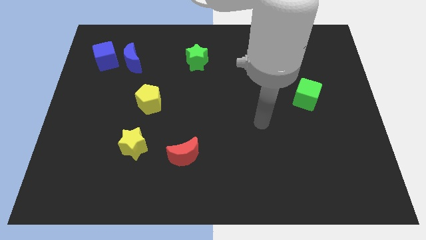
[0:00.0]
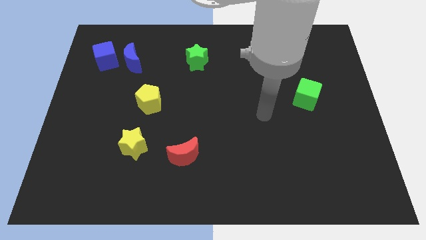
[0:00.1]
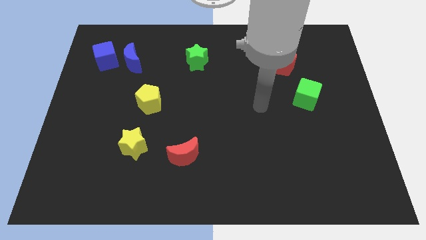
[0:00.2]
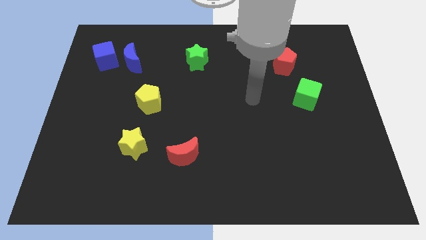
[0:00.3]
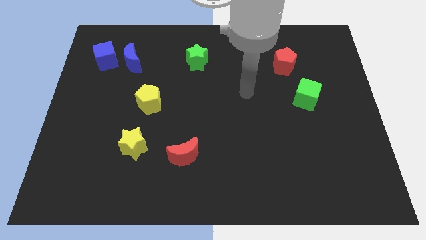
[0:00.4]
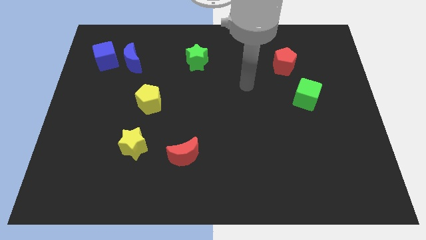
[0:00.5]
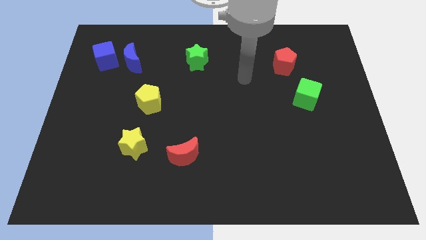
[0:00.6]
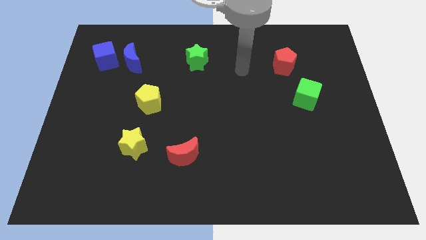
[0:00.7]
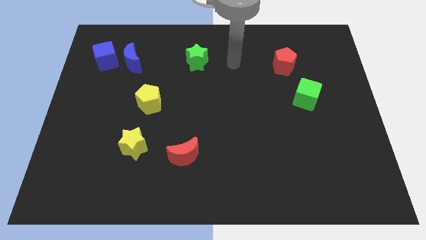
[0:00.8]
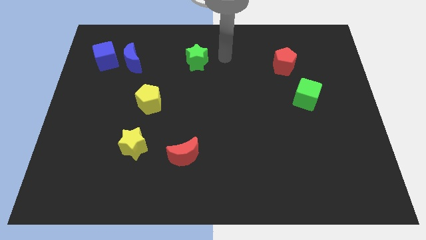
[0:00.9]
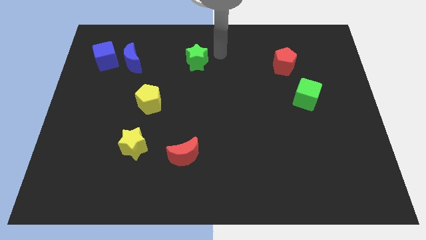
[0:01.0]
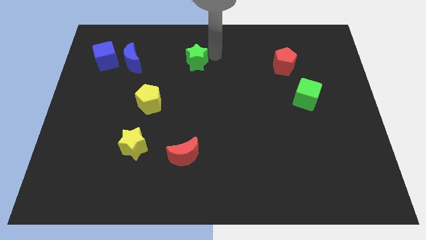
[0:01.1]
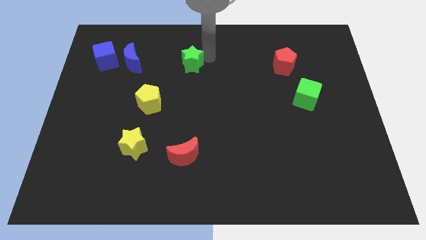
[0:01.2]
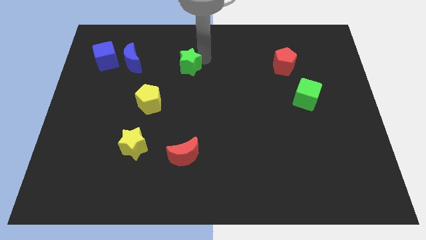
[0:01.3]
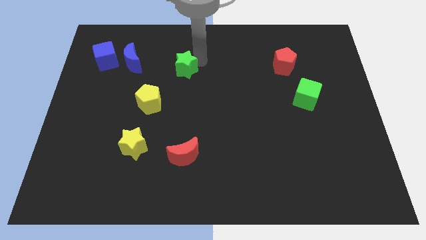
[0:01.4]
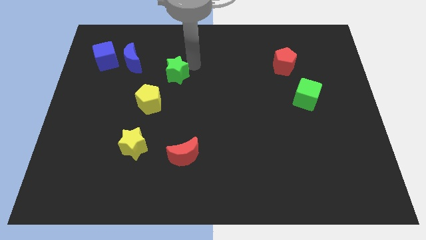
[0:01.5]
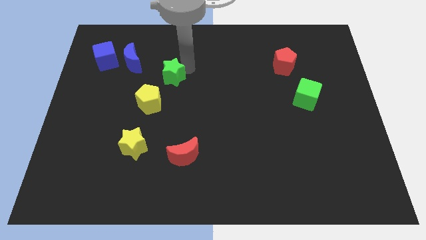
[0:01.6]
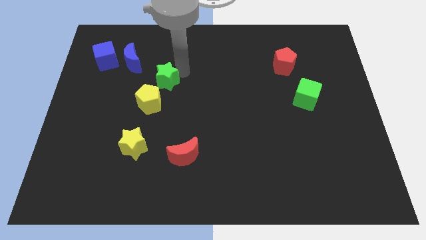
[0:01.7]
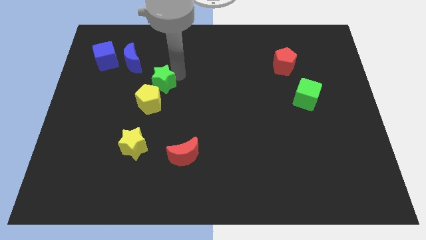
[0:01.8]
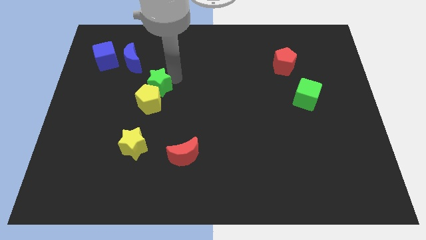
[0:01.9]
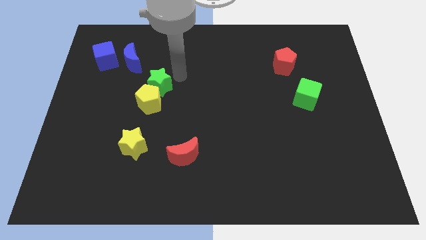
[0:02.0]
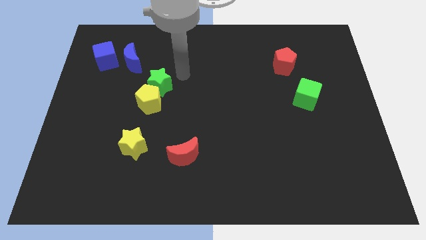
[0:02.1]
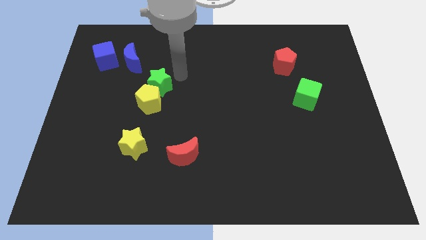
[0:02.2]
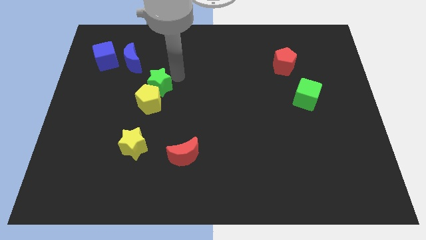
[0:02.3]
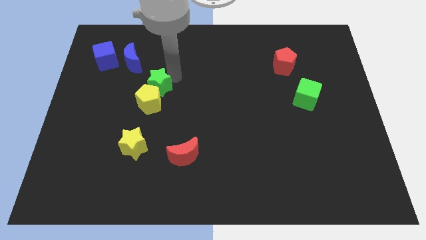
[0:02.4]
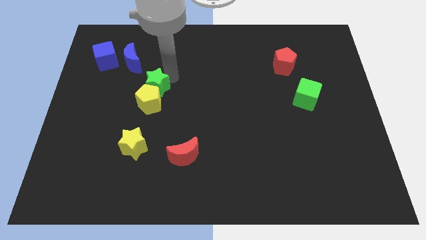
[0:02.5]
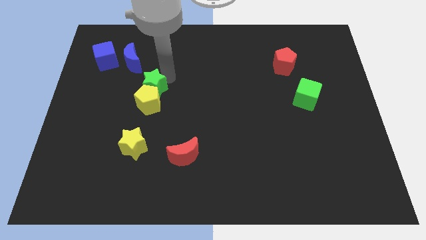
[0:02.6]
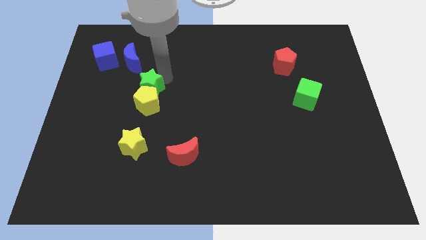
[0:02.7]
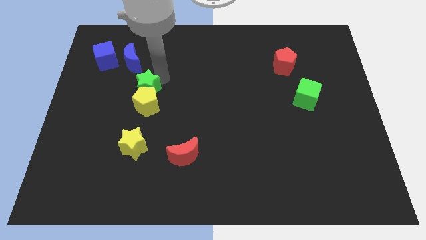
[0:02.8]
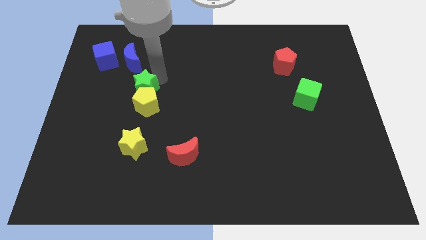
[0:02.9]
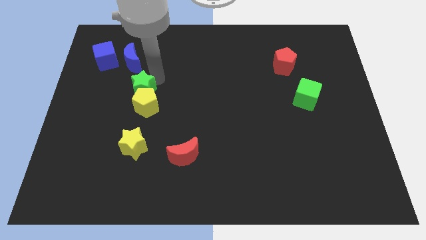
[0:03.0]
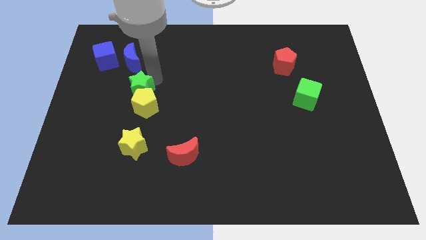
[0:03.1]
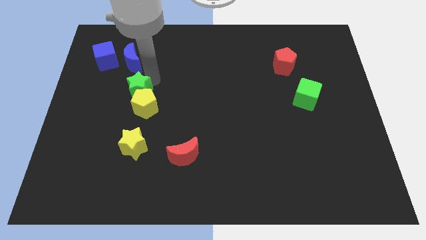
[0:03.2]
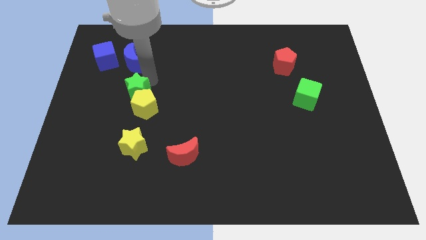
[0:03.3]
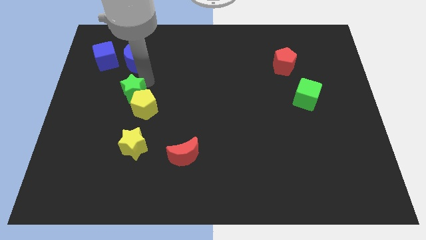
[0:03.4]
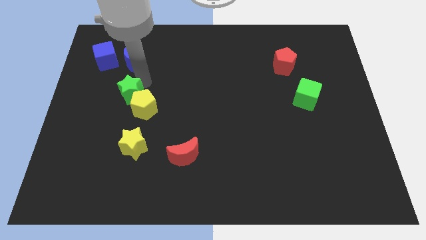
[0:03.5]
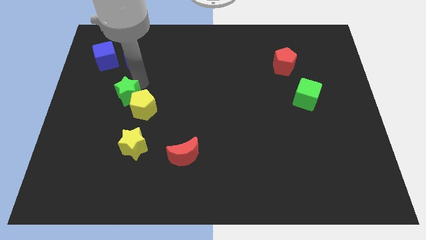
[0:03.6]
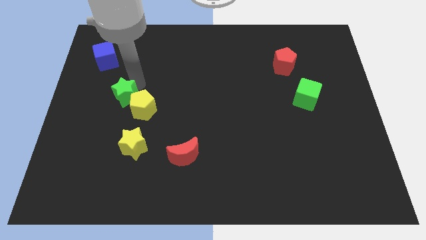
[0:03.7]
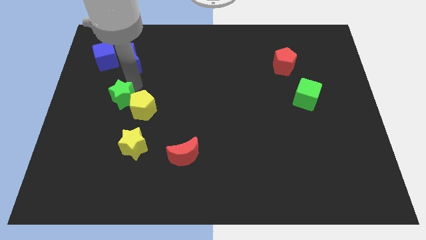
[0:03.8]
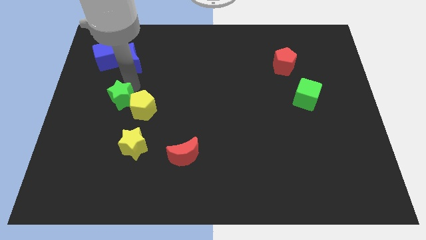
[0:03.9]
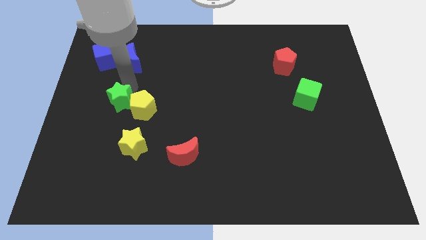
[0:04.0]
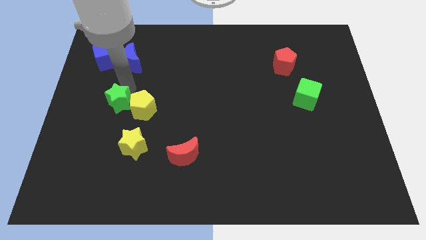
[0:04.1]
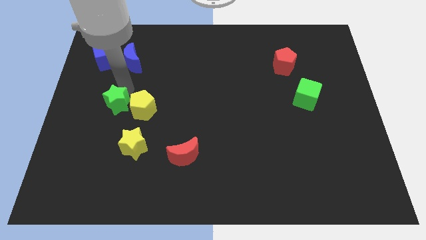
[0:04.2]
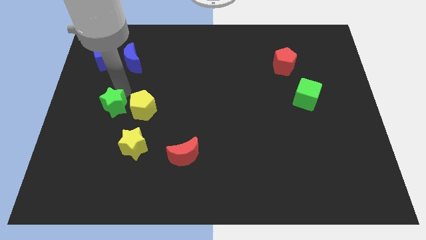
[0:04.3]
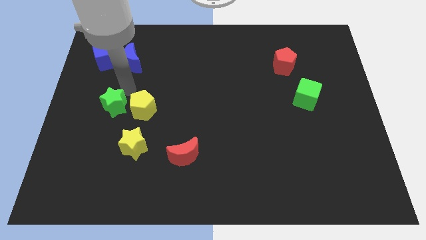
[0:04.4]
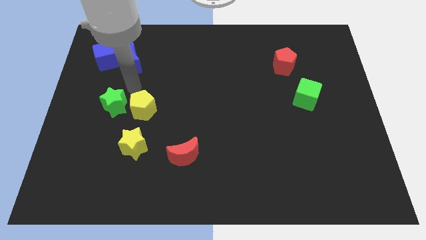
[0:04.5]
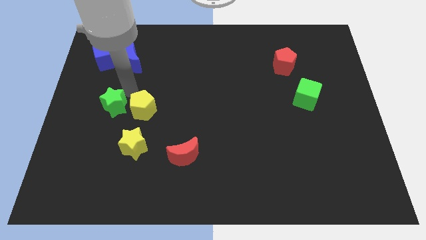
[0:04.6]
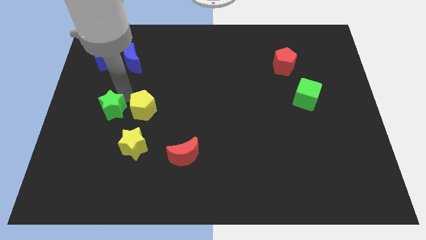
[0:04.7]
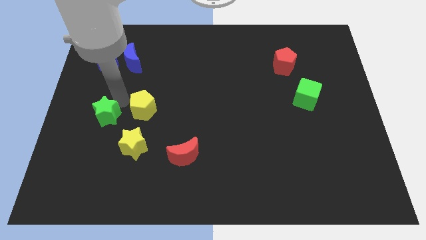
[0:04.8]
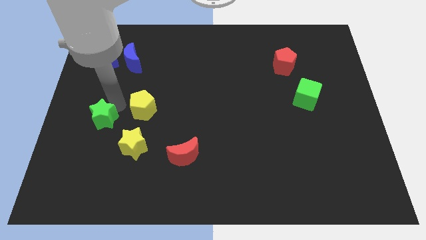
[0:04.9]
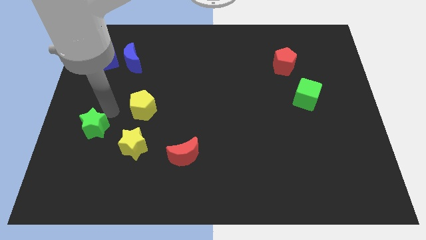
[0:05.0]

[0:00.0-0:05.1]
push the green star left of the yellow star

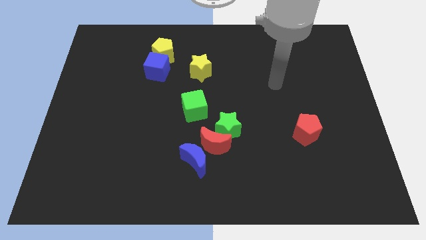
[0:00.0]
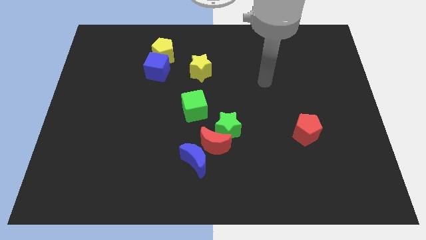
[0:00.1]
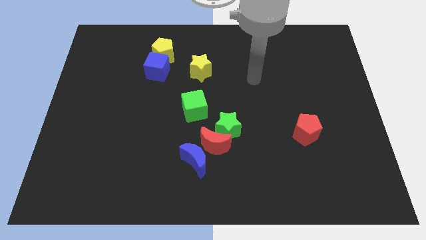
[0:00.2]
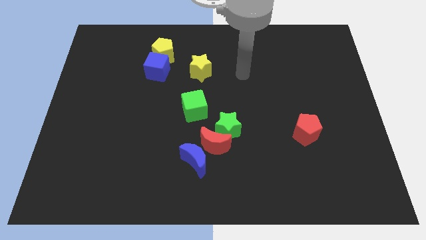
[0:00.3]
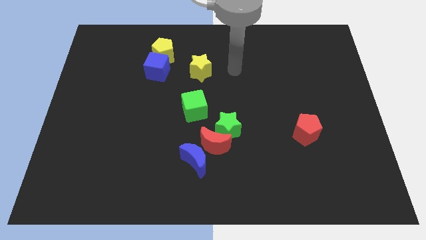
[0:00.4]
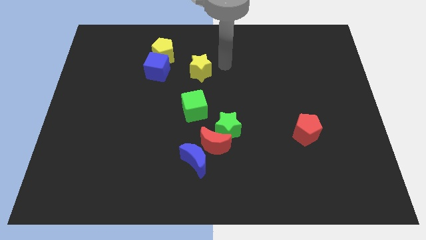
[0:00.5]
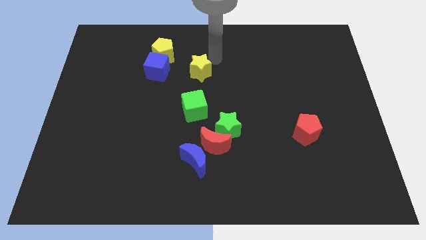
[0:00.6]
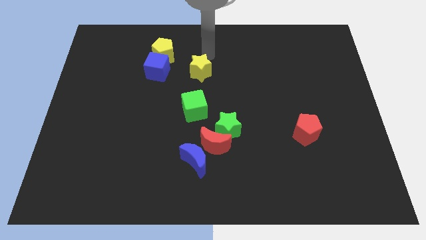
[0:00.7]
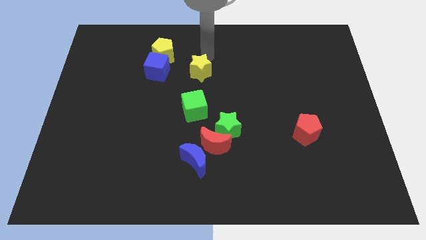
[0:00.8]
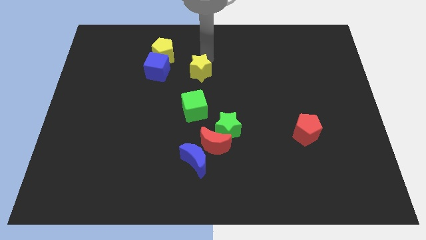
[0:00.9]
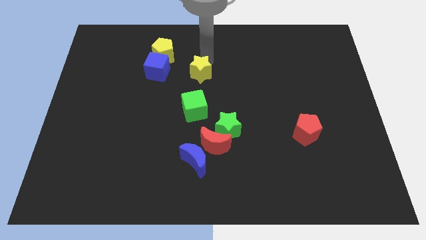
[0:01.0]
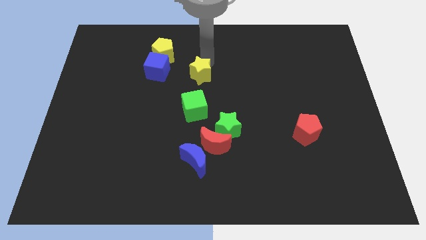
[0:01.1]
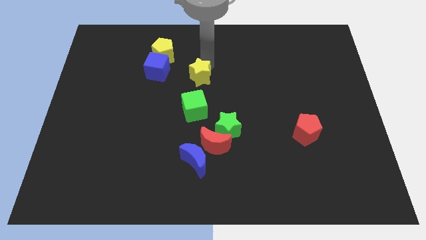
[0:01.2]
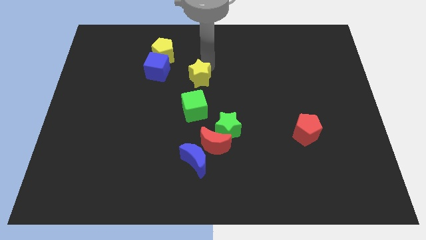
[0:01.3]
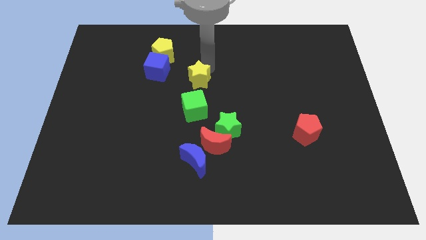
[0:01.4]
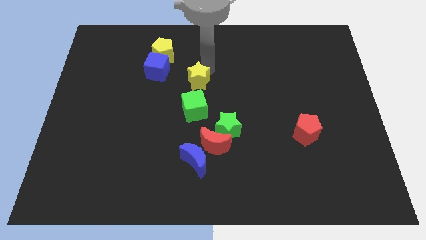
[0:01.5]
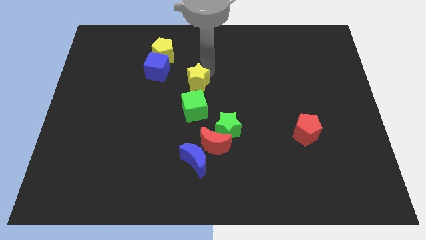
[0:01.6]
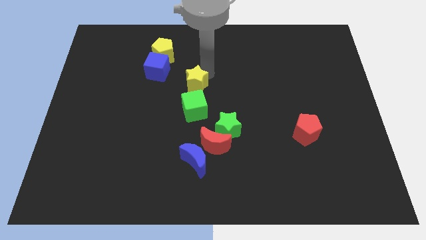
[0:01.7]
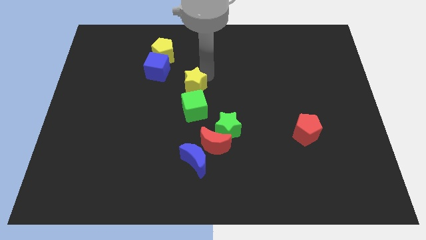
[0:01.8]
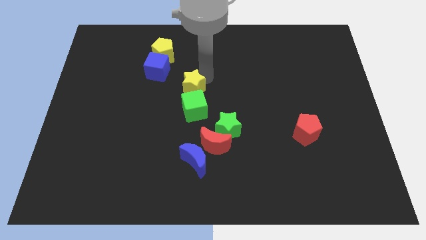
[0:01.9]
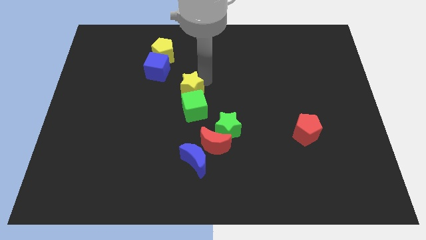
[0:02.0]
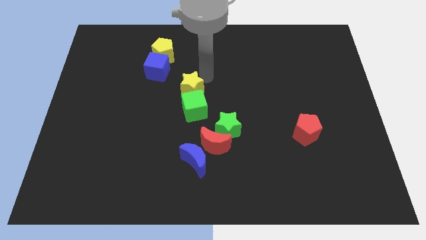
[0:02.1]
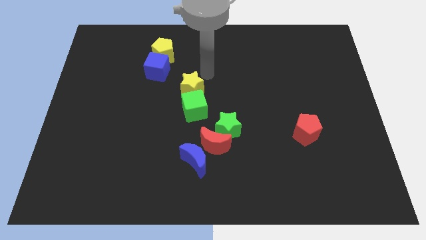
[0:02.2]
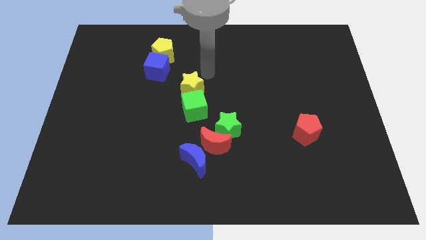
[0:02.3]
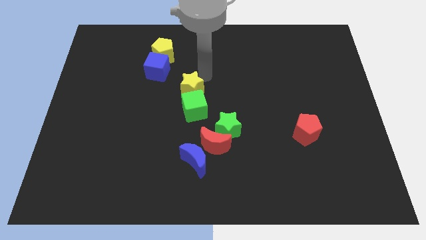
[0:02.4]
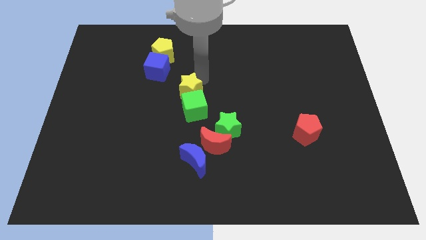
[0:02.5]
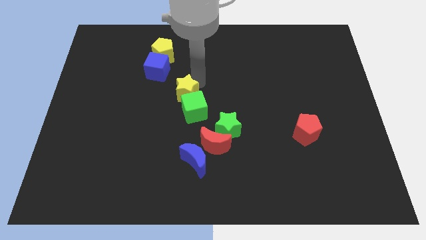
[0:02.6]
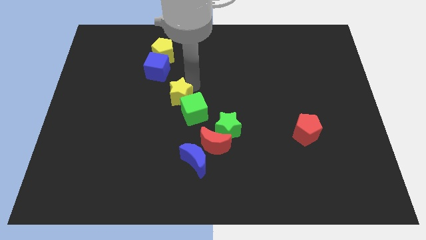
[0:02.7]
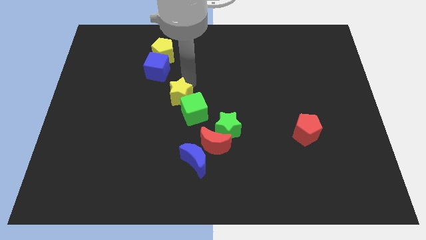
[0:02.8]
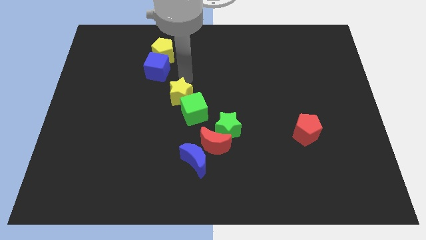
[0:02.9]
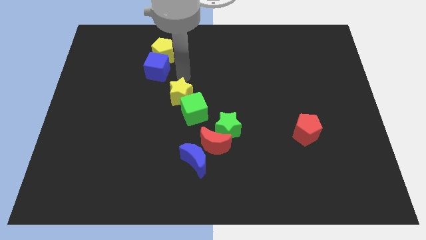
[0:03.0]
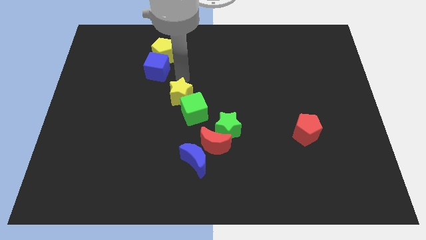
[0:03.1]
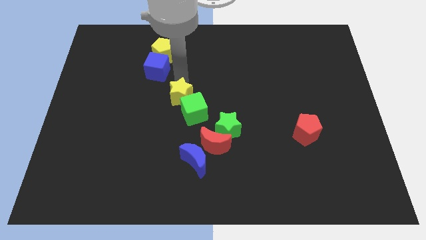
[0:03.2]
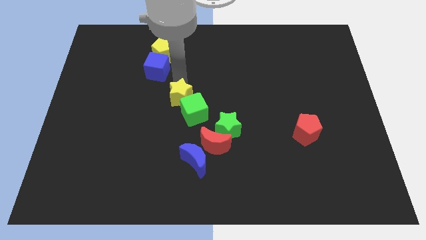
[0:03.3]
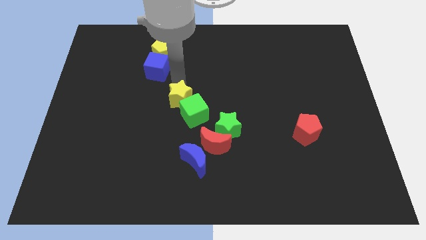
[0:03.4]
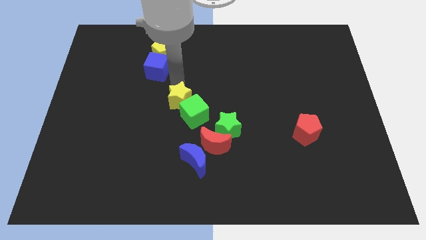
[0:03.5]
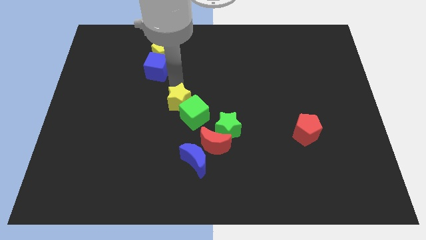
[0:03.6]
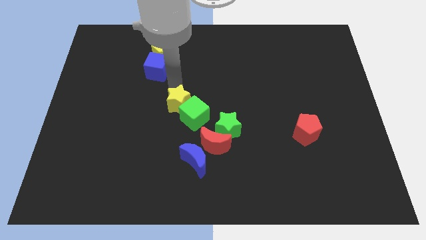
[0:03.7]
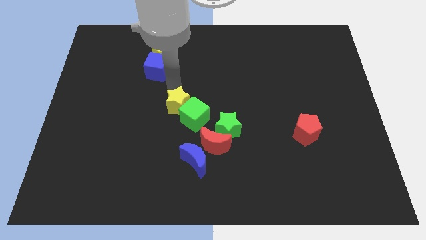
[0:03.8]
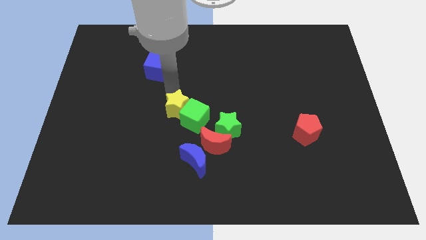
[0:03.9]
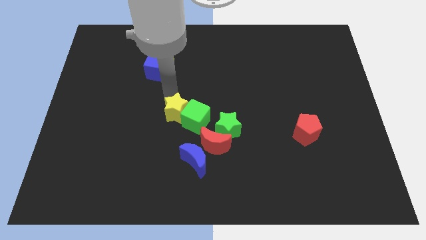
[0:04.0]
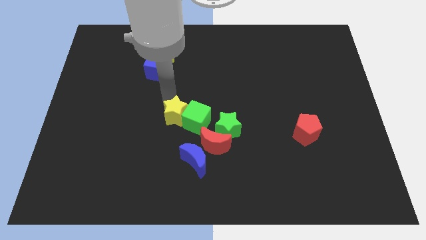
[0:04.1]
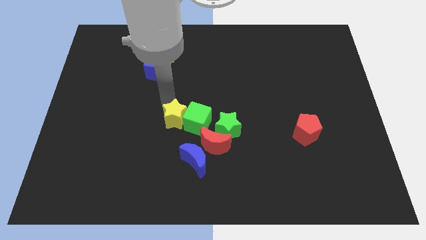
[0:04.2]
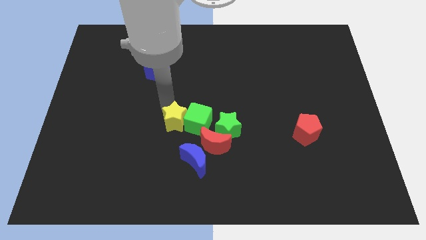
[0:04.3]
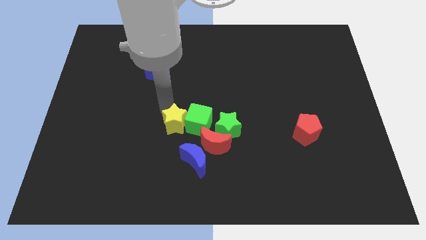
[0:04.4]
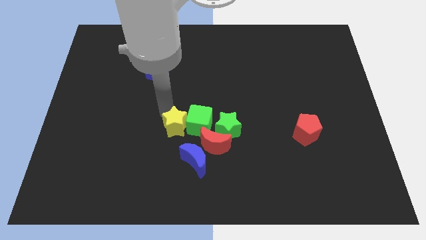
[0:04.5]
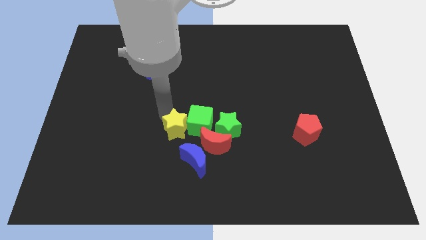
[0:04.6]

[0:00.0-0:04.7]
put the yellow star to the left side of the red moon
